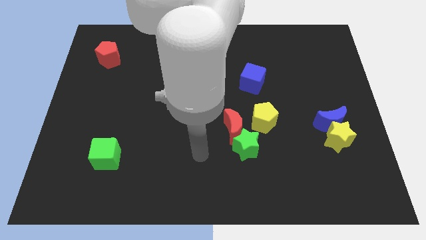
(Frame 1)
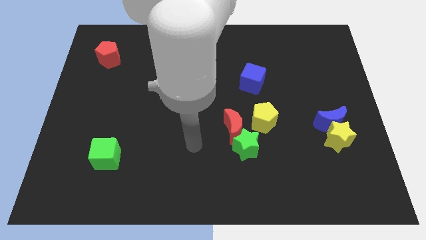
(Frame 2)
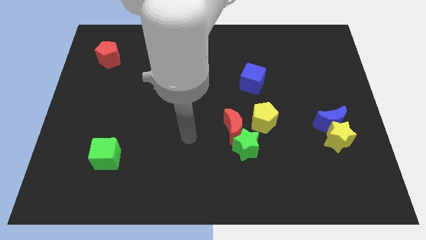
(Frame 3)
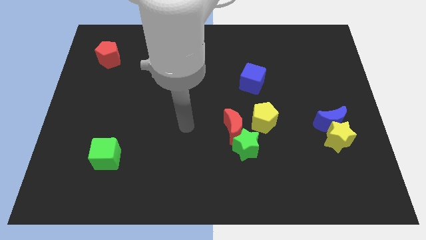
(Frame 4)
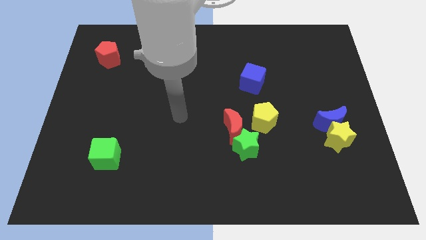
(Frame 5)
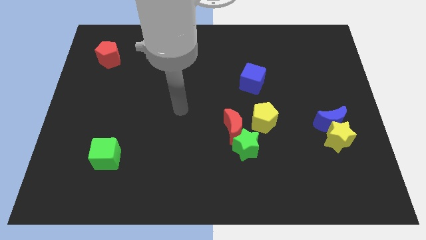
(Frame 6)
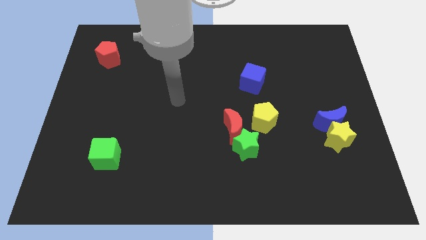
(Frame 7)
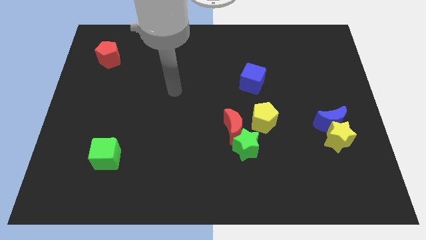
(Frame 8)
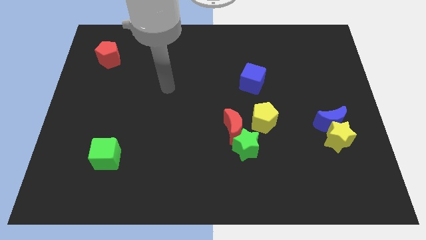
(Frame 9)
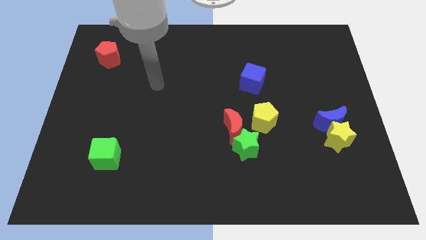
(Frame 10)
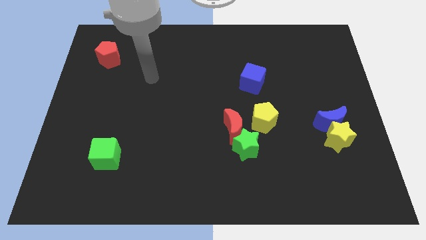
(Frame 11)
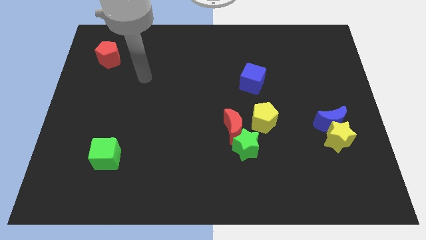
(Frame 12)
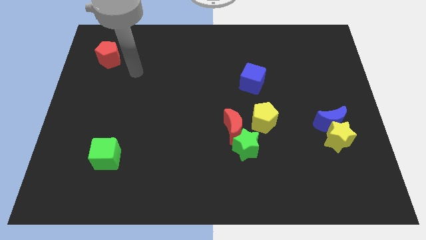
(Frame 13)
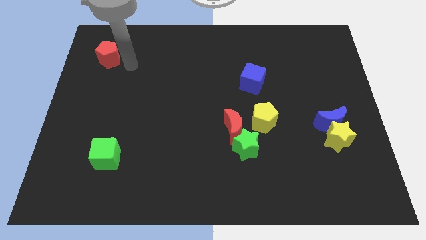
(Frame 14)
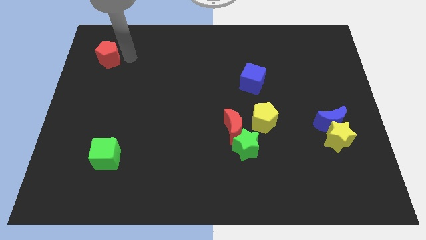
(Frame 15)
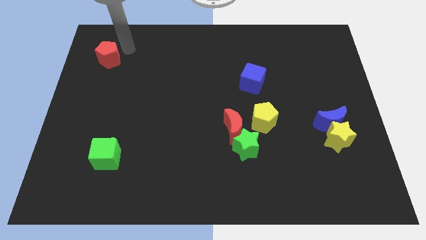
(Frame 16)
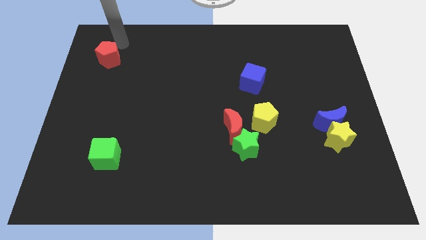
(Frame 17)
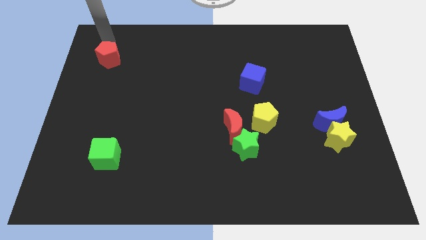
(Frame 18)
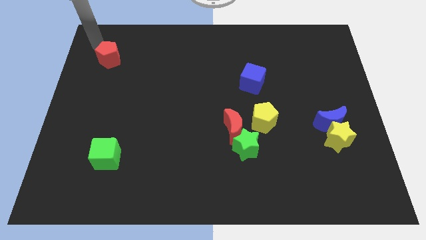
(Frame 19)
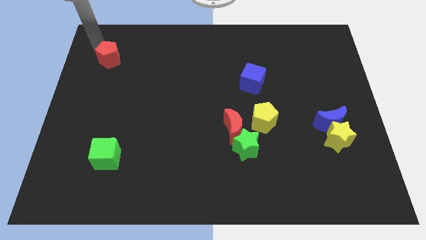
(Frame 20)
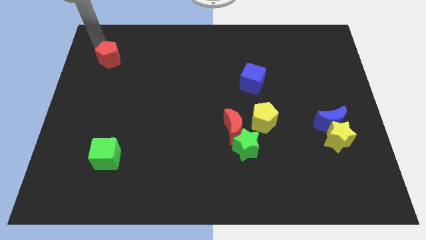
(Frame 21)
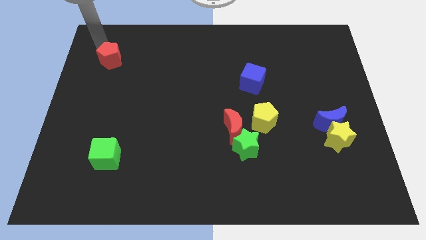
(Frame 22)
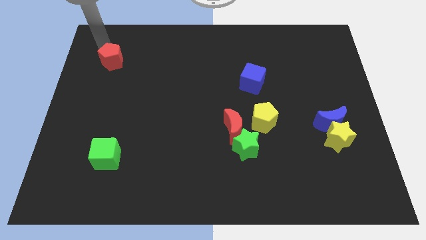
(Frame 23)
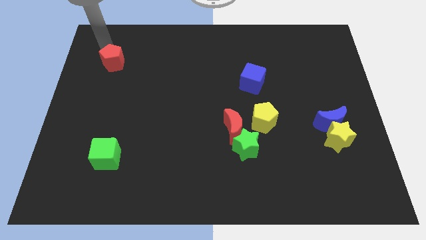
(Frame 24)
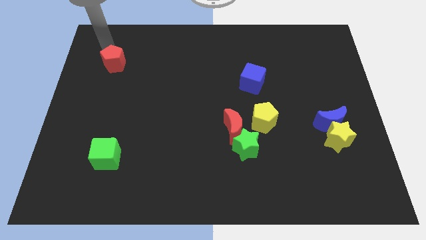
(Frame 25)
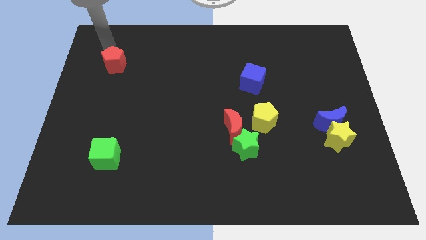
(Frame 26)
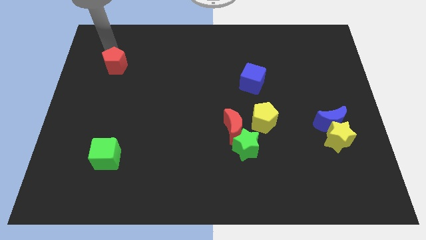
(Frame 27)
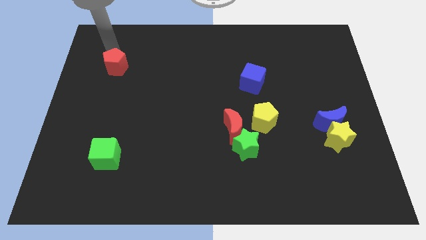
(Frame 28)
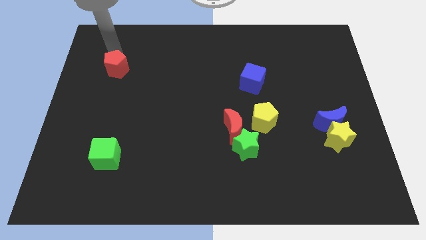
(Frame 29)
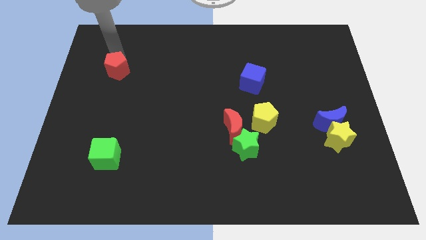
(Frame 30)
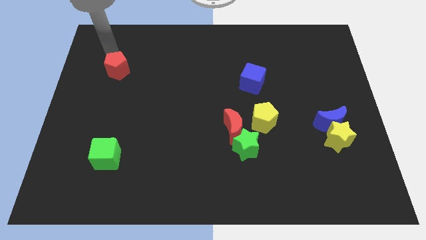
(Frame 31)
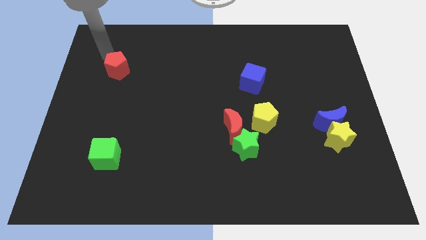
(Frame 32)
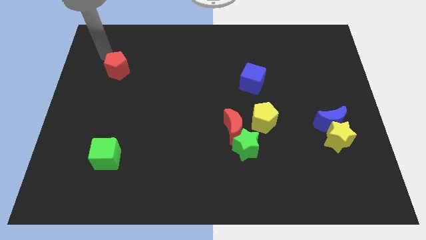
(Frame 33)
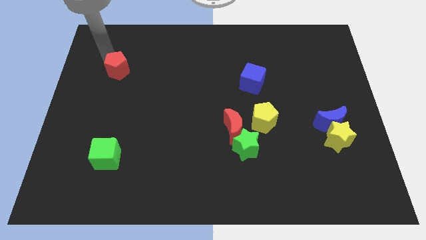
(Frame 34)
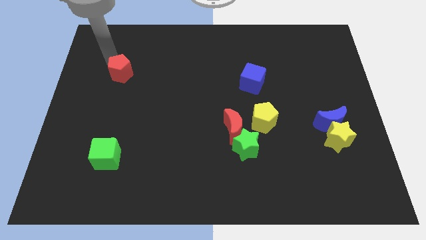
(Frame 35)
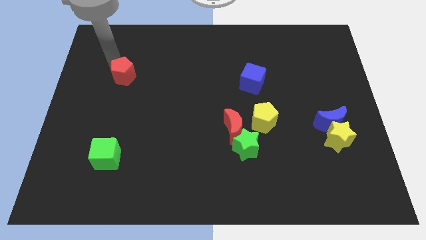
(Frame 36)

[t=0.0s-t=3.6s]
slide the red pentagon a little diagonally downwards and right

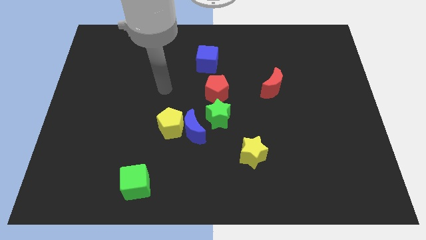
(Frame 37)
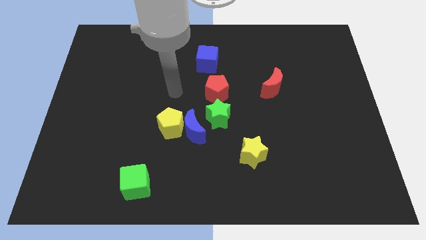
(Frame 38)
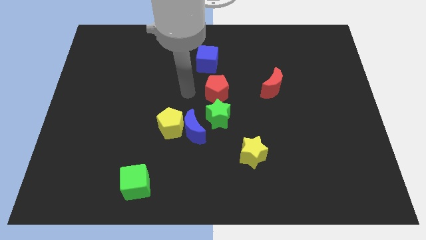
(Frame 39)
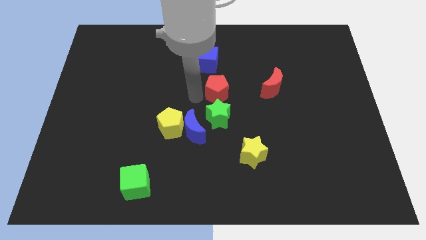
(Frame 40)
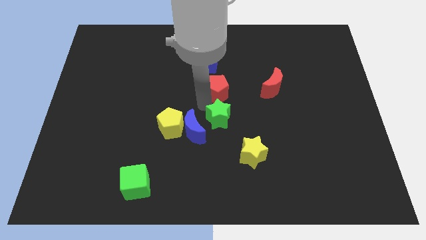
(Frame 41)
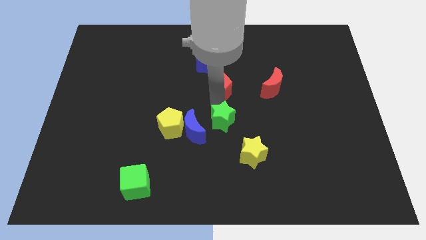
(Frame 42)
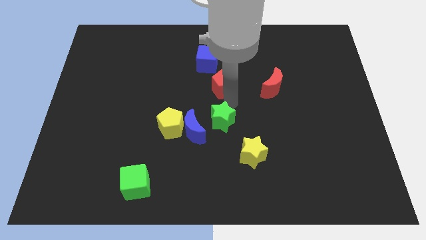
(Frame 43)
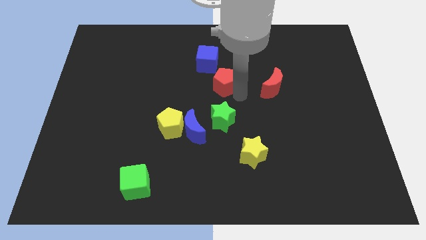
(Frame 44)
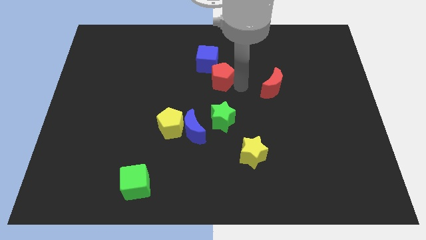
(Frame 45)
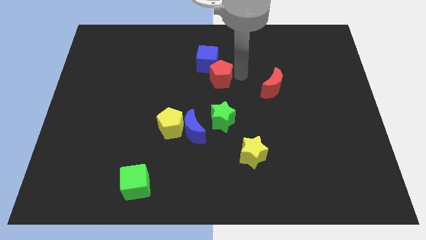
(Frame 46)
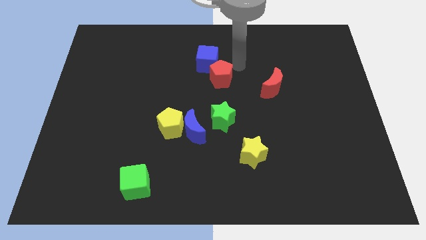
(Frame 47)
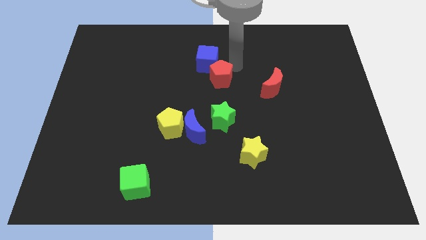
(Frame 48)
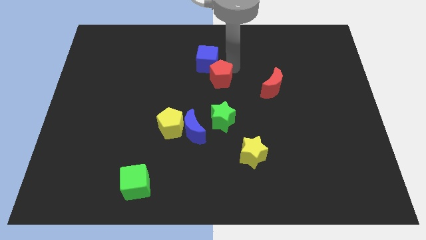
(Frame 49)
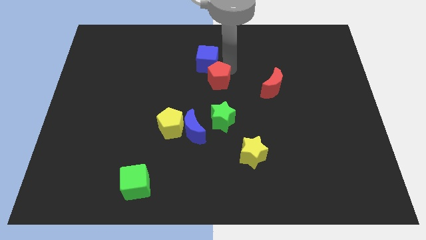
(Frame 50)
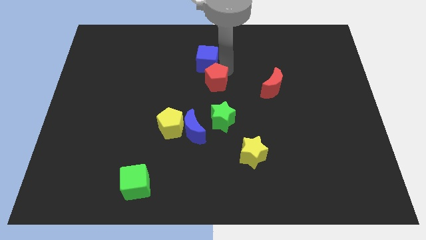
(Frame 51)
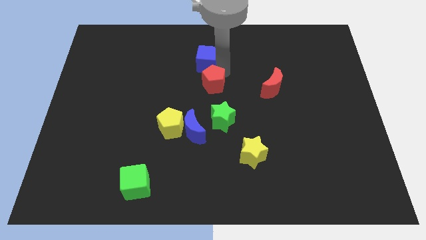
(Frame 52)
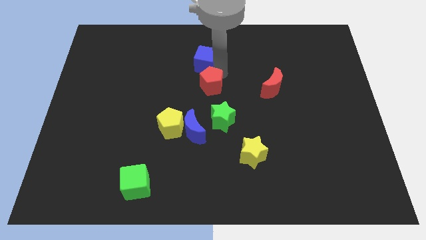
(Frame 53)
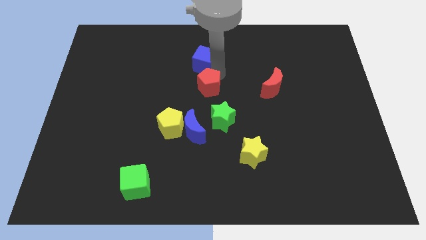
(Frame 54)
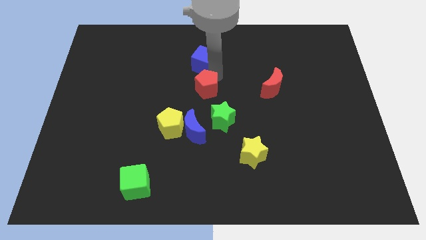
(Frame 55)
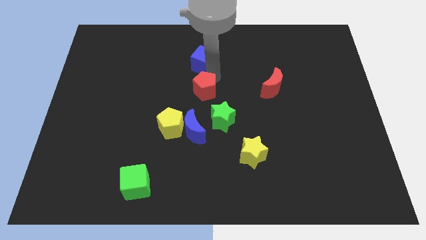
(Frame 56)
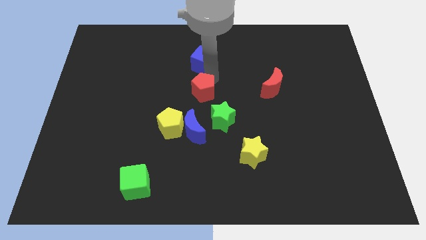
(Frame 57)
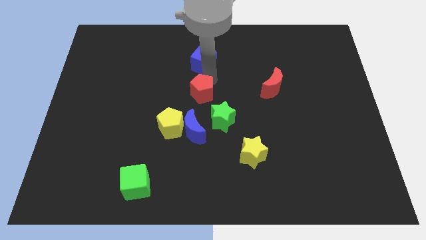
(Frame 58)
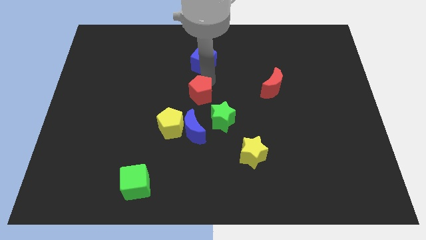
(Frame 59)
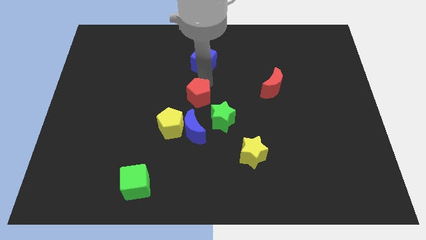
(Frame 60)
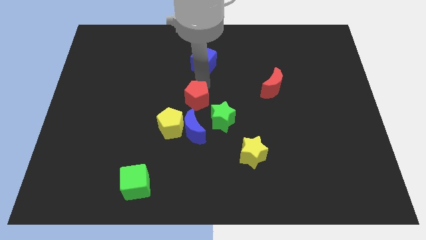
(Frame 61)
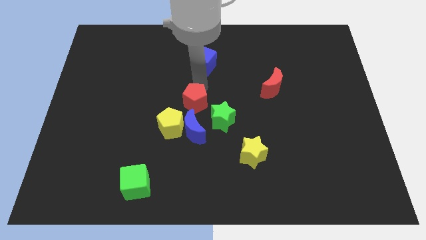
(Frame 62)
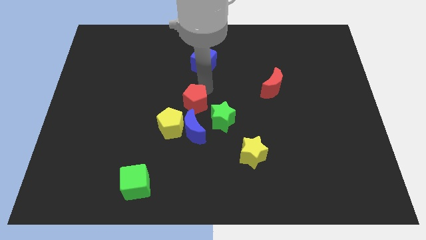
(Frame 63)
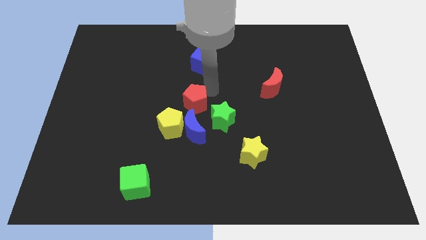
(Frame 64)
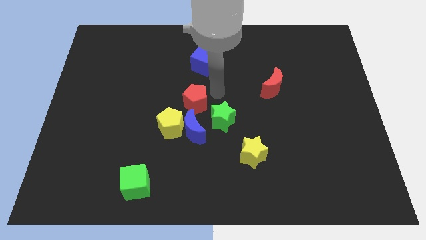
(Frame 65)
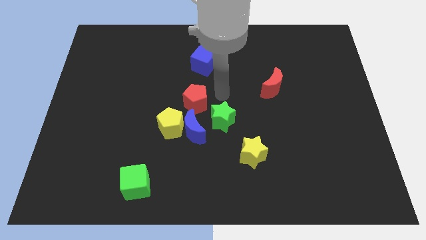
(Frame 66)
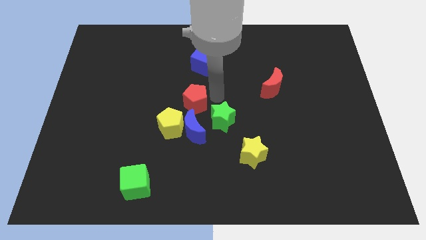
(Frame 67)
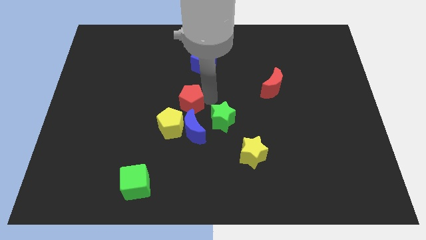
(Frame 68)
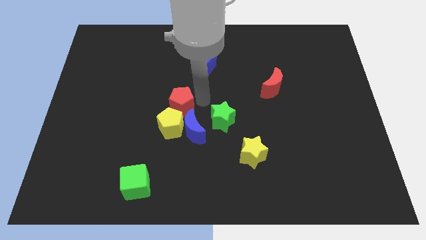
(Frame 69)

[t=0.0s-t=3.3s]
move the red pentagon downwards and to the left diagonally somewhat

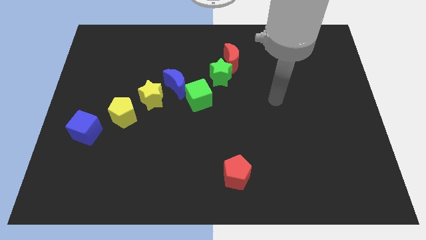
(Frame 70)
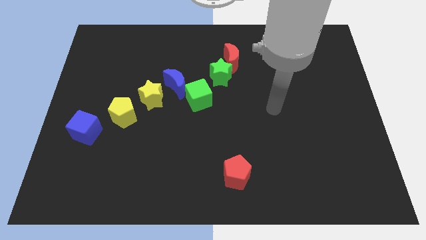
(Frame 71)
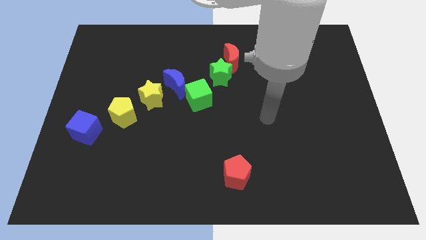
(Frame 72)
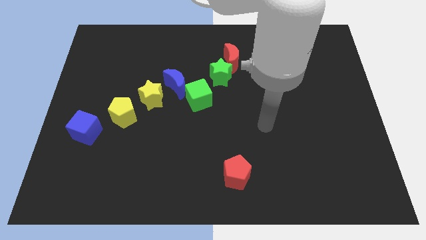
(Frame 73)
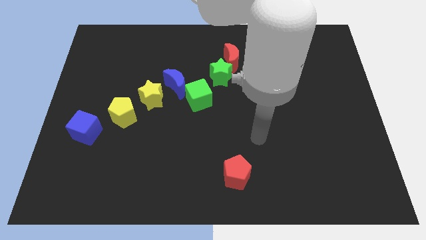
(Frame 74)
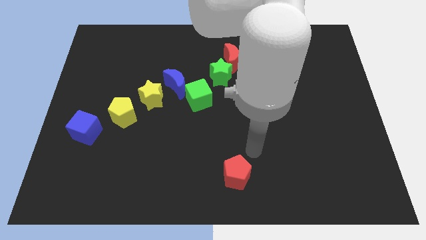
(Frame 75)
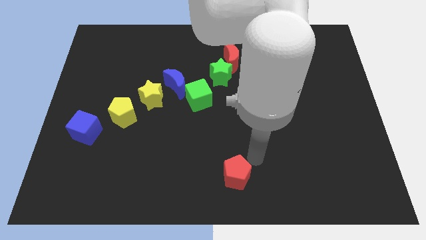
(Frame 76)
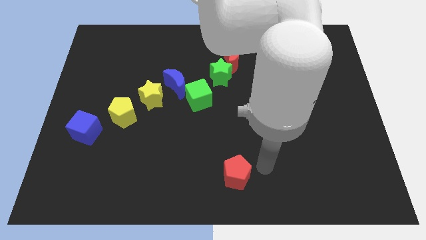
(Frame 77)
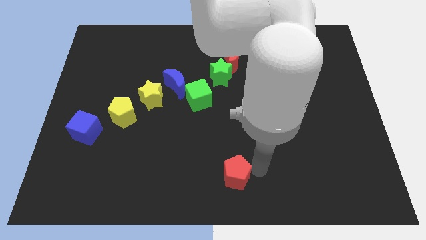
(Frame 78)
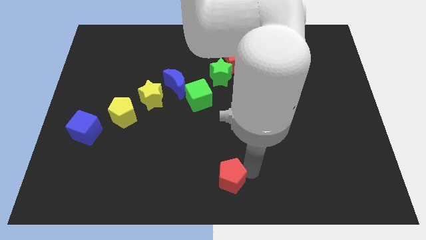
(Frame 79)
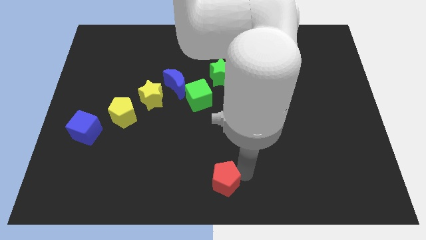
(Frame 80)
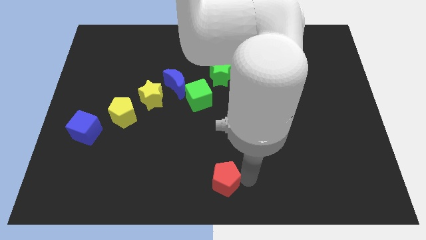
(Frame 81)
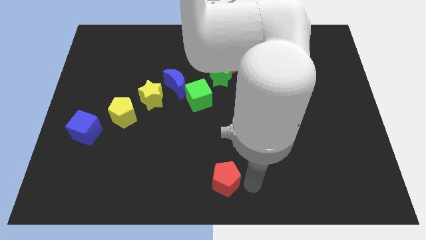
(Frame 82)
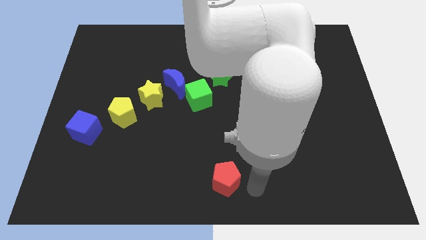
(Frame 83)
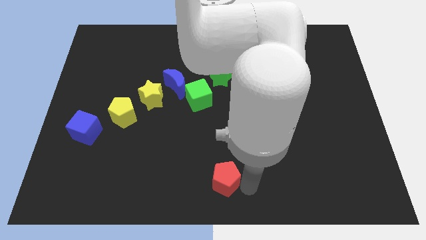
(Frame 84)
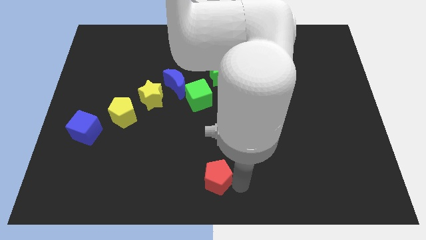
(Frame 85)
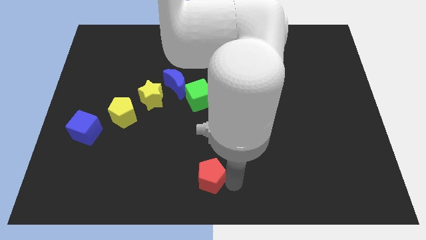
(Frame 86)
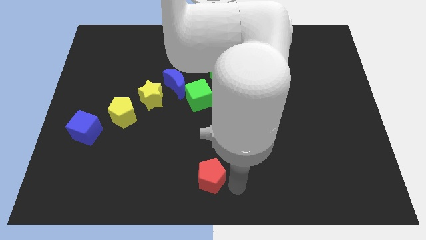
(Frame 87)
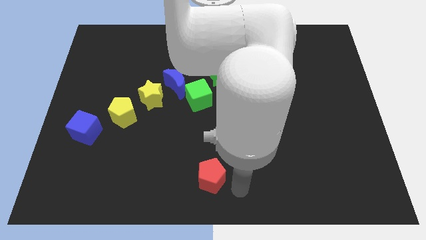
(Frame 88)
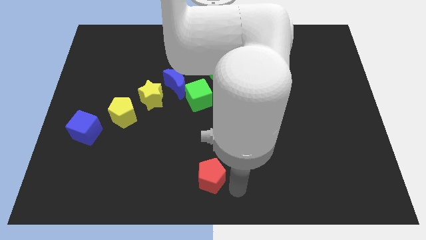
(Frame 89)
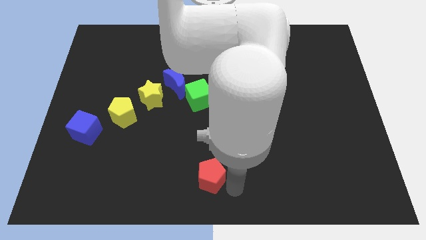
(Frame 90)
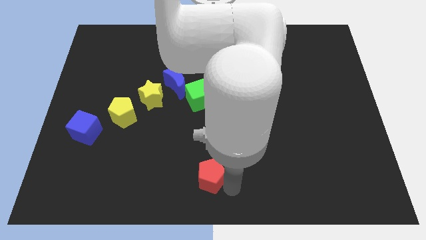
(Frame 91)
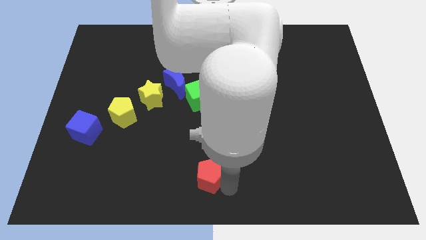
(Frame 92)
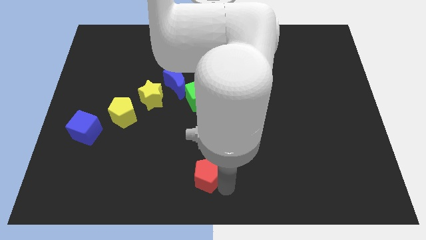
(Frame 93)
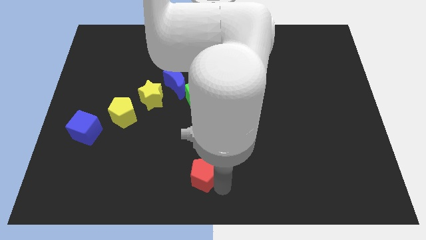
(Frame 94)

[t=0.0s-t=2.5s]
slide the red pentagon left a little bit
